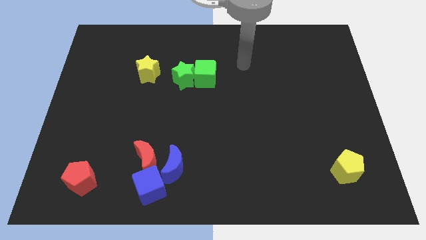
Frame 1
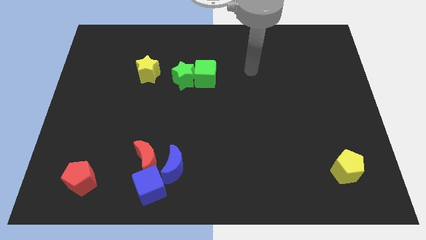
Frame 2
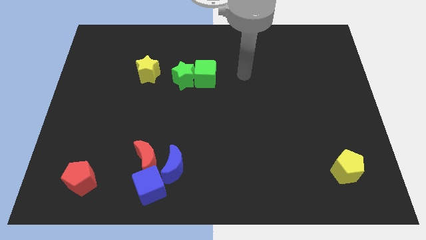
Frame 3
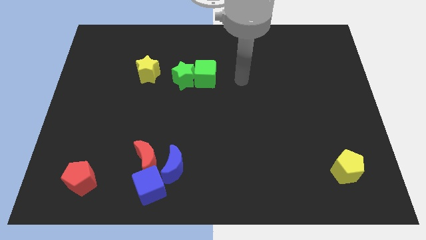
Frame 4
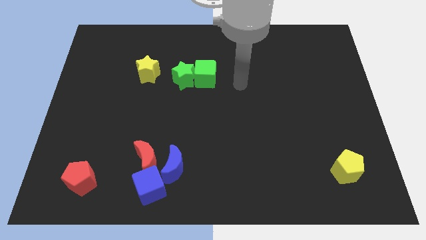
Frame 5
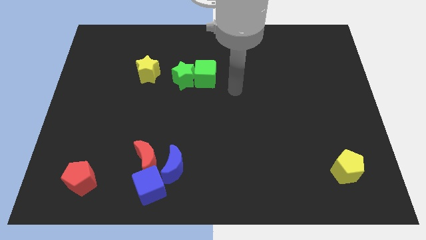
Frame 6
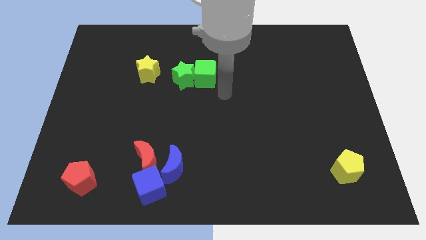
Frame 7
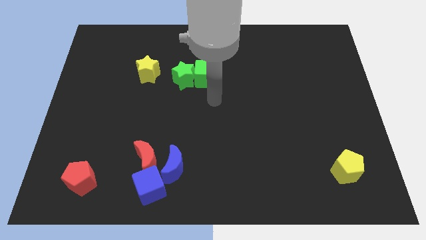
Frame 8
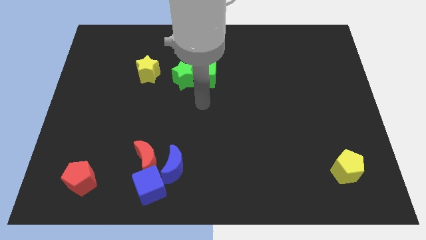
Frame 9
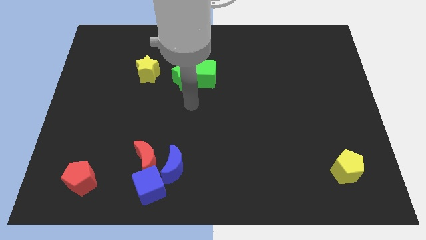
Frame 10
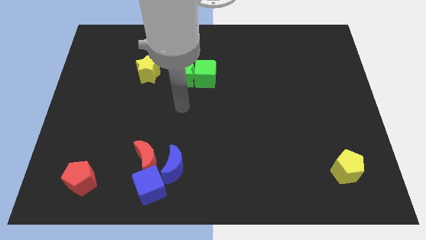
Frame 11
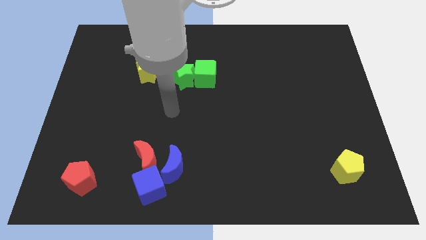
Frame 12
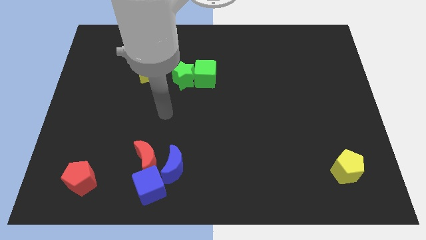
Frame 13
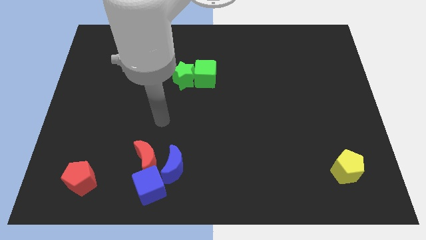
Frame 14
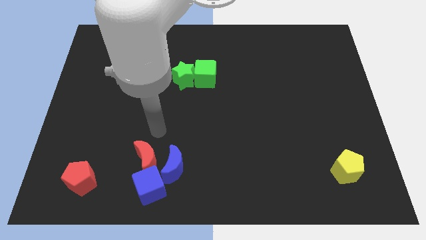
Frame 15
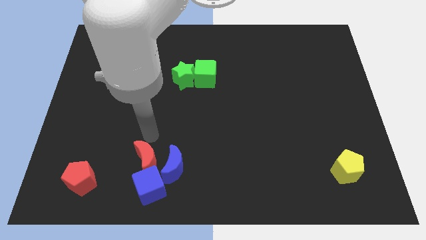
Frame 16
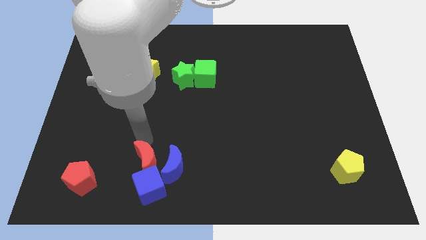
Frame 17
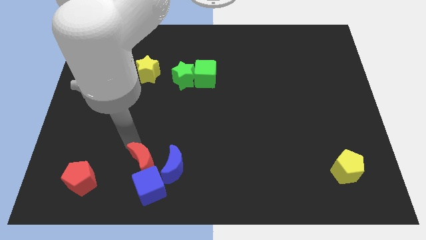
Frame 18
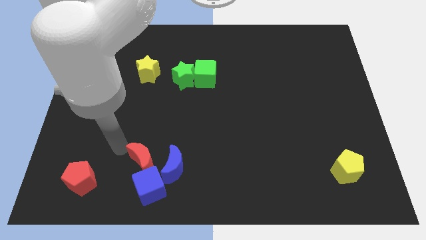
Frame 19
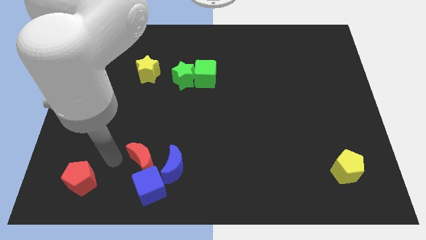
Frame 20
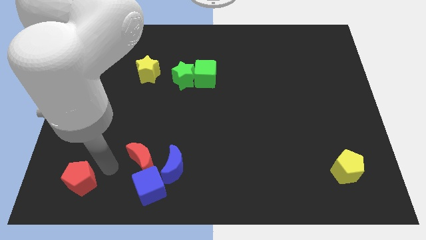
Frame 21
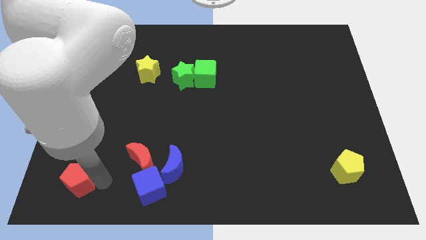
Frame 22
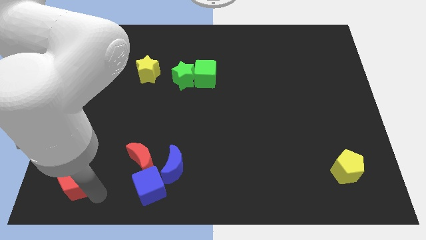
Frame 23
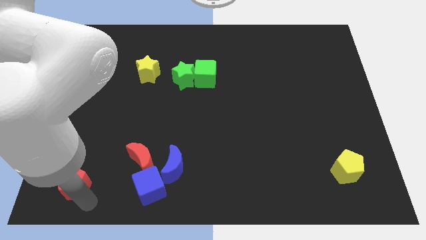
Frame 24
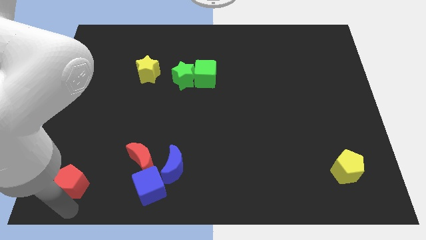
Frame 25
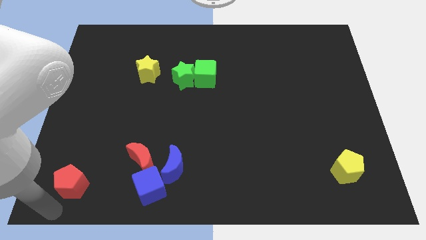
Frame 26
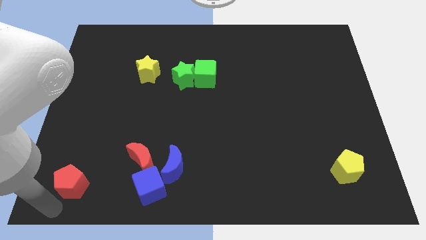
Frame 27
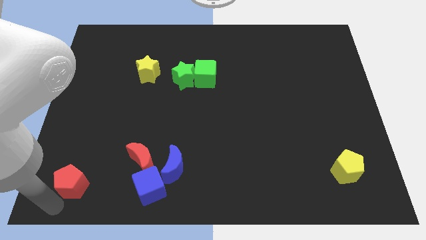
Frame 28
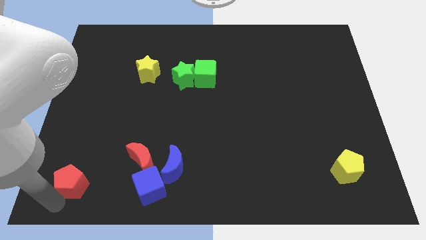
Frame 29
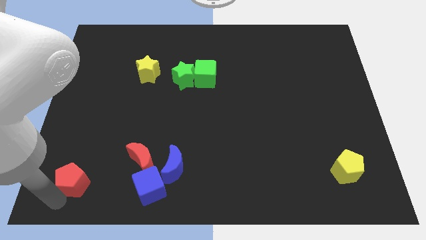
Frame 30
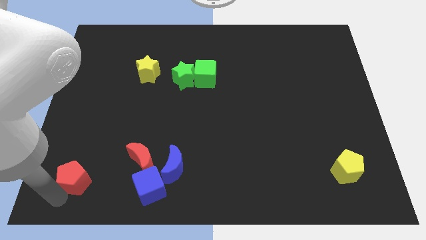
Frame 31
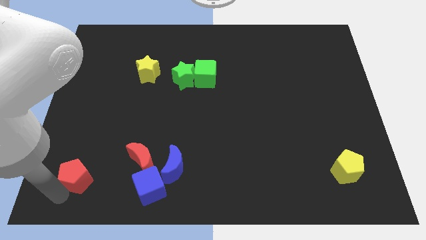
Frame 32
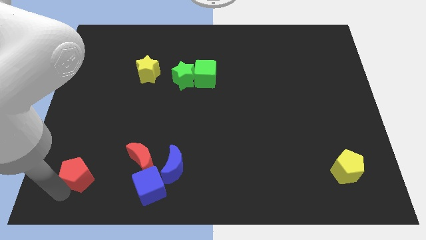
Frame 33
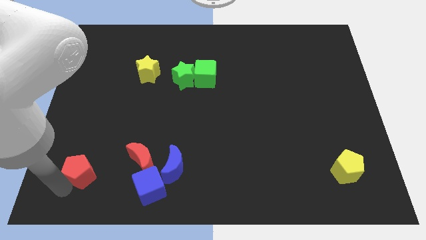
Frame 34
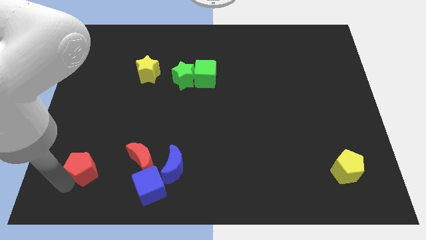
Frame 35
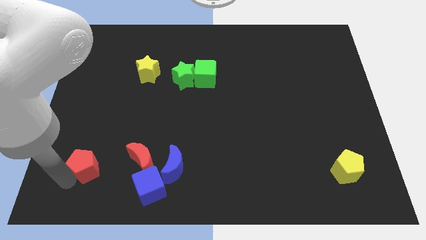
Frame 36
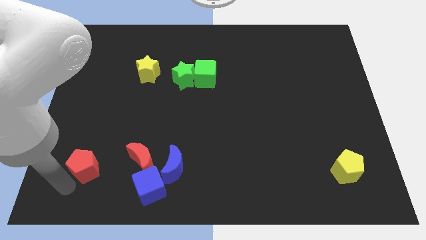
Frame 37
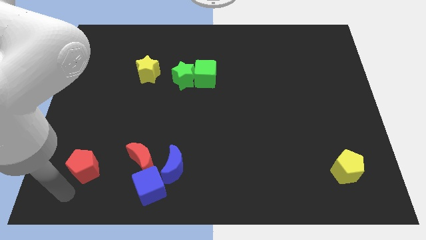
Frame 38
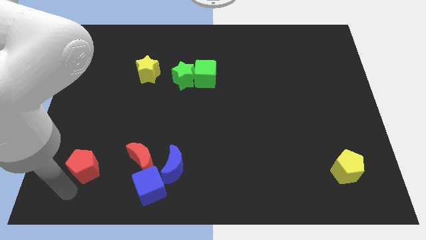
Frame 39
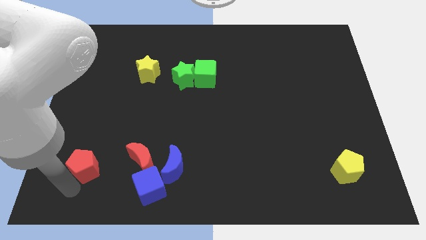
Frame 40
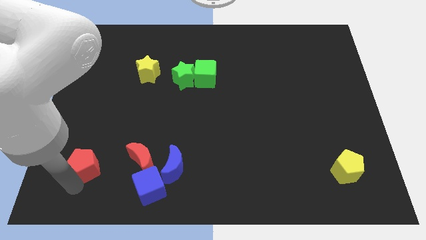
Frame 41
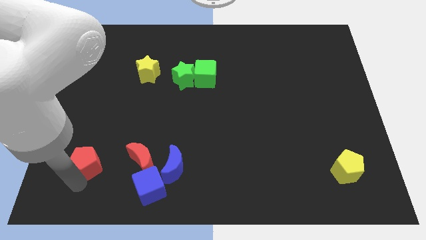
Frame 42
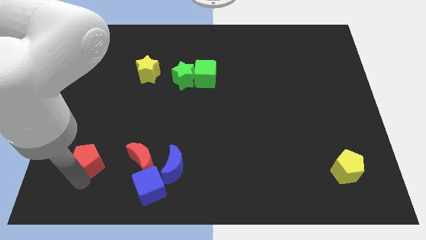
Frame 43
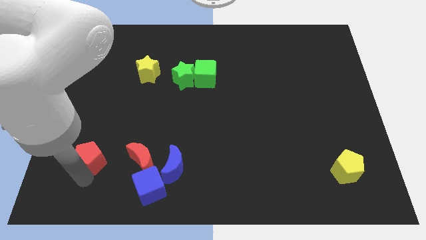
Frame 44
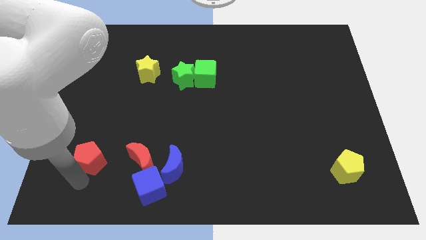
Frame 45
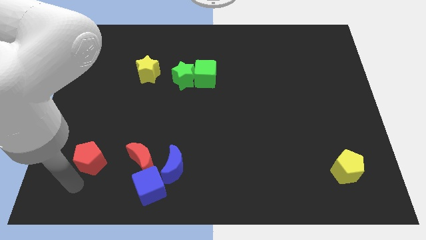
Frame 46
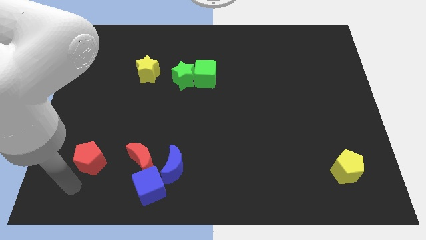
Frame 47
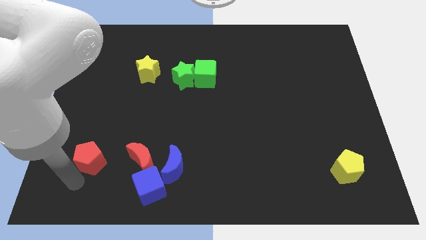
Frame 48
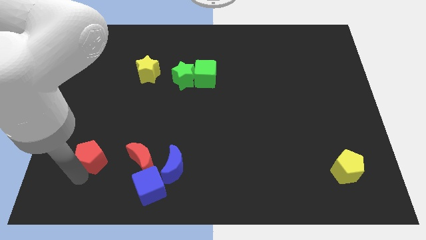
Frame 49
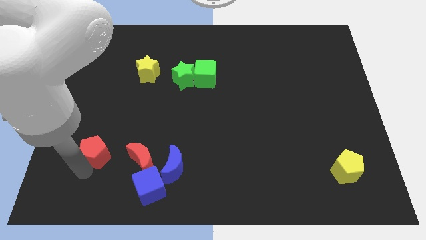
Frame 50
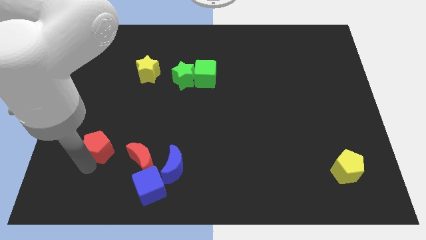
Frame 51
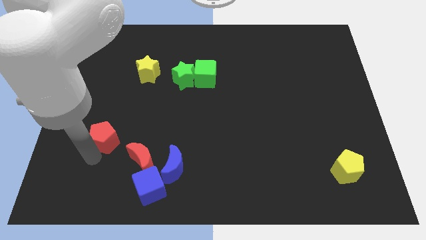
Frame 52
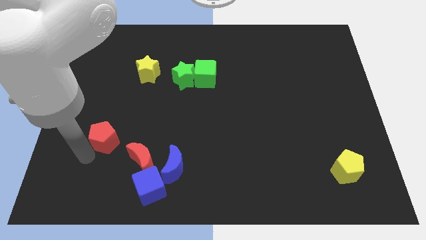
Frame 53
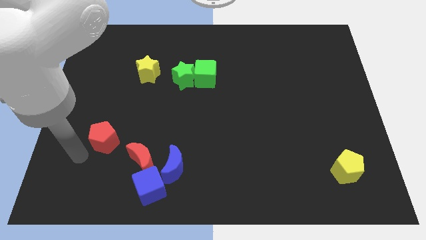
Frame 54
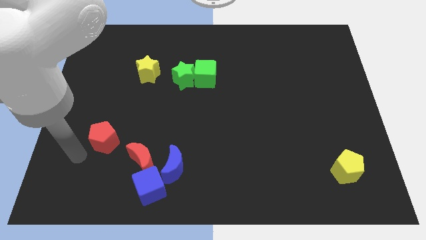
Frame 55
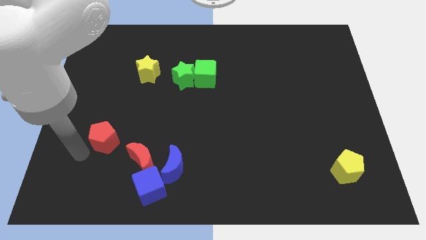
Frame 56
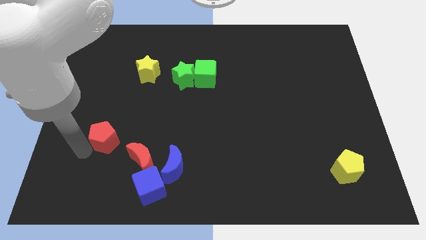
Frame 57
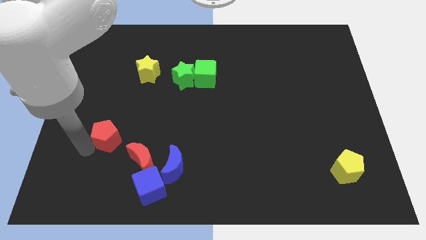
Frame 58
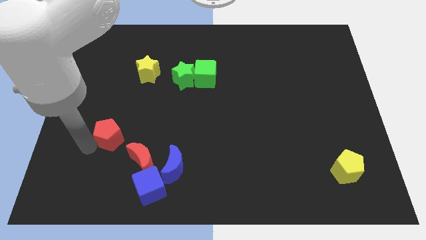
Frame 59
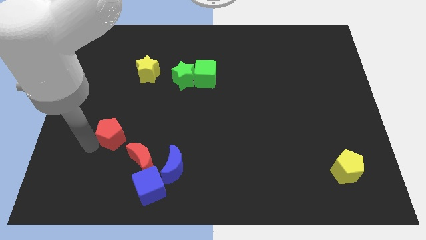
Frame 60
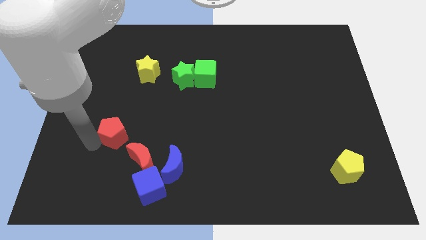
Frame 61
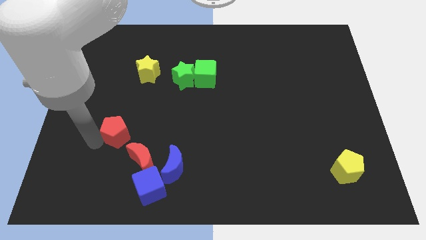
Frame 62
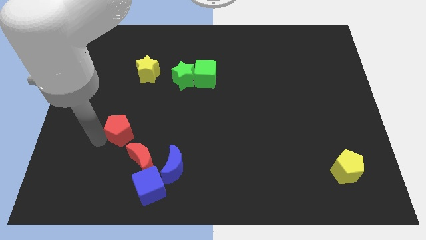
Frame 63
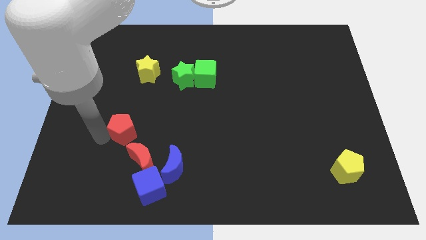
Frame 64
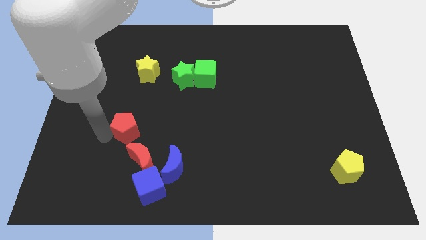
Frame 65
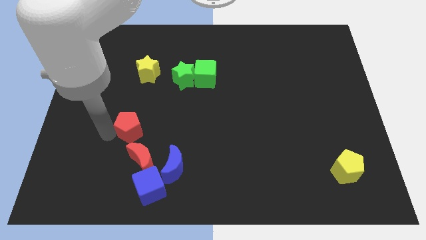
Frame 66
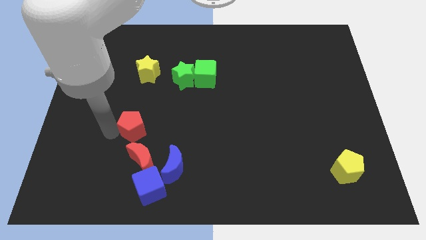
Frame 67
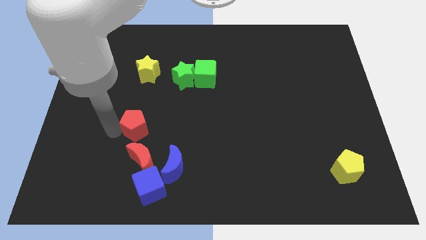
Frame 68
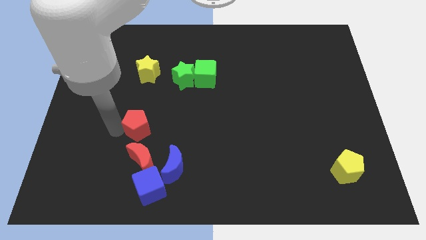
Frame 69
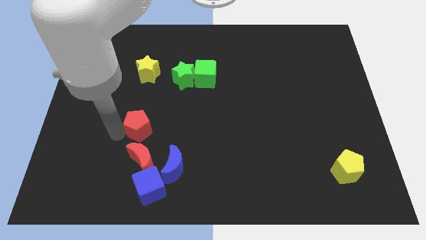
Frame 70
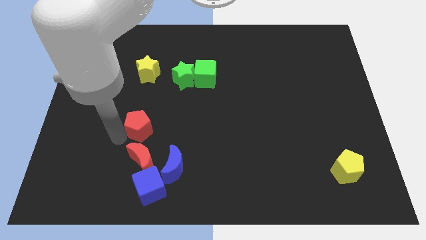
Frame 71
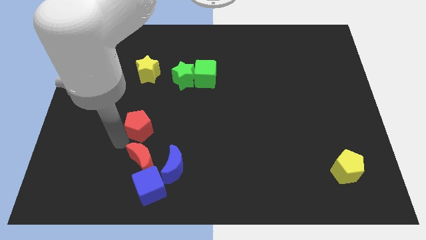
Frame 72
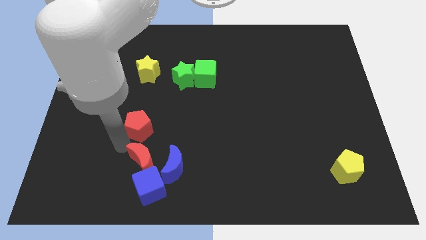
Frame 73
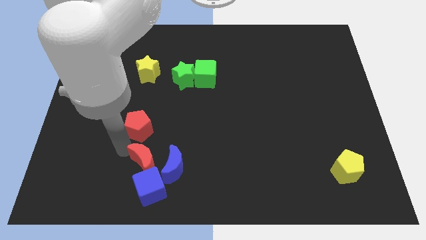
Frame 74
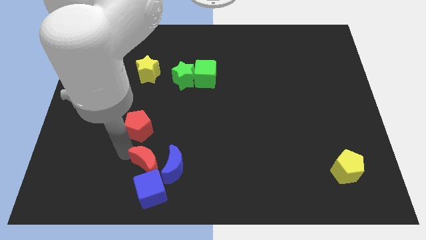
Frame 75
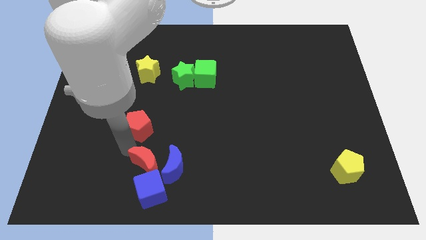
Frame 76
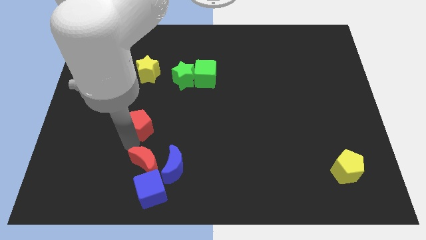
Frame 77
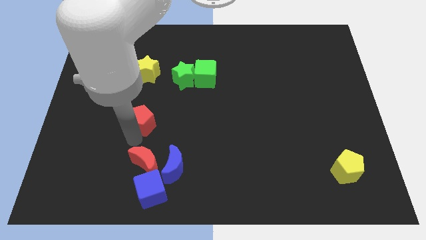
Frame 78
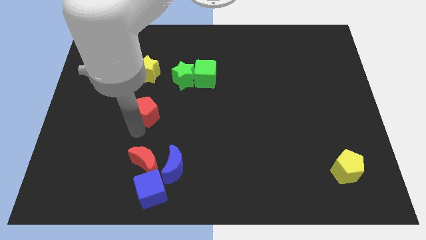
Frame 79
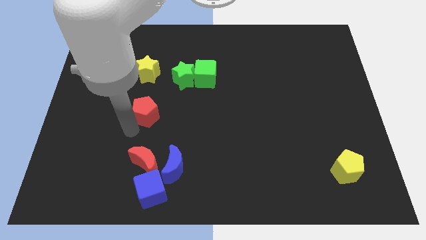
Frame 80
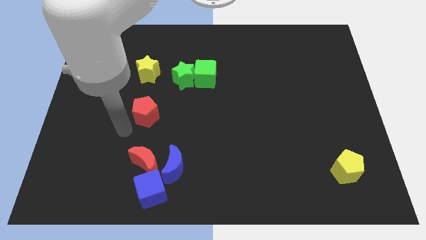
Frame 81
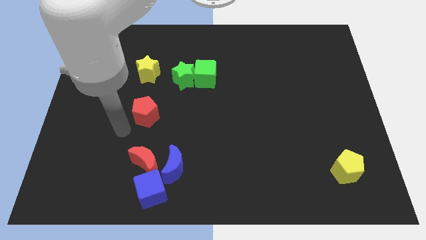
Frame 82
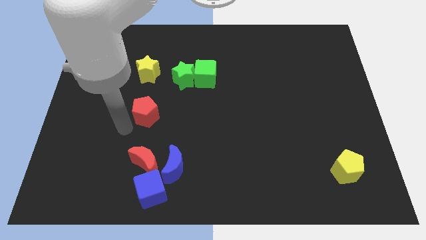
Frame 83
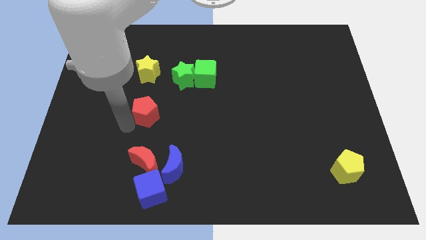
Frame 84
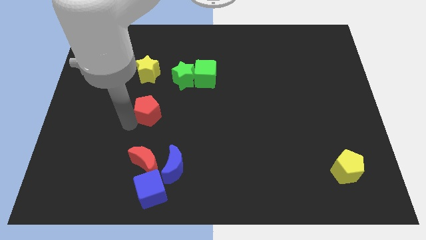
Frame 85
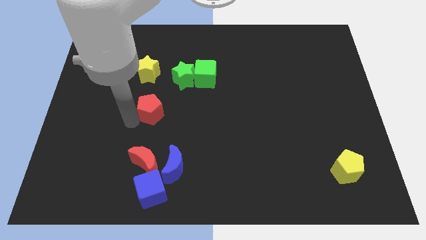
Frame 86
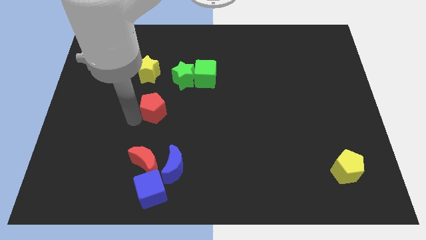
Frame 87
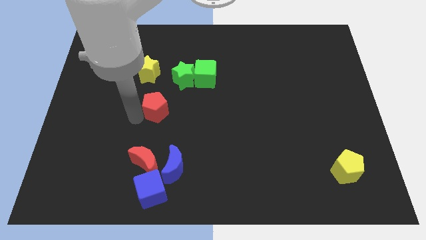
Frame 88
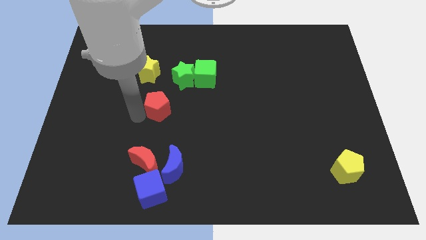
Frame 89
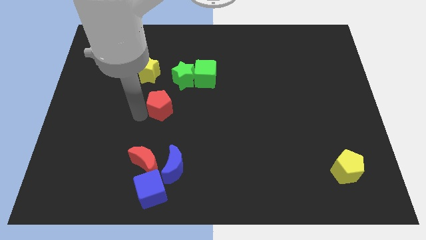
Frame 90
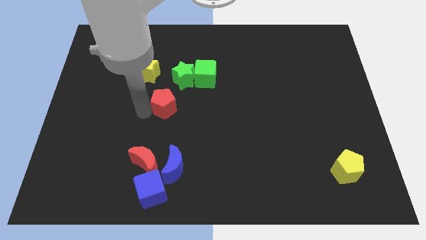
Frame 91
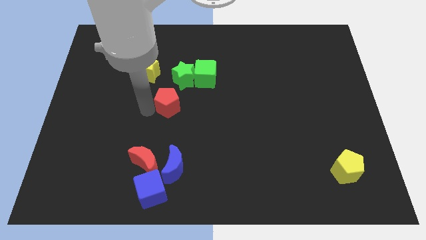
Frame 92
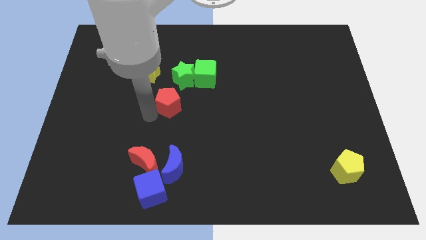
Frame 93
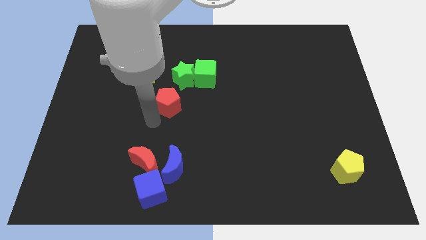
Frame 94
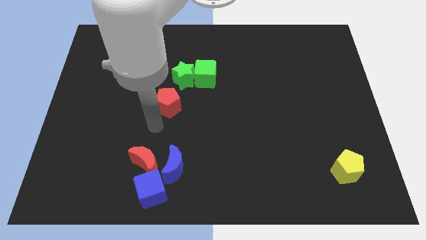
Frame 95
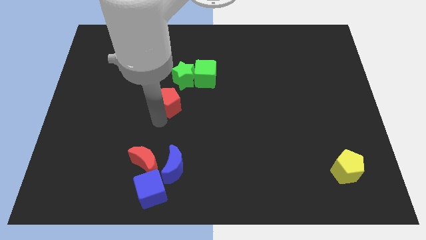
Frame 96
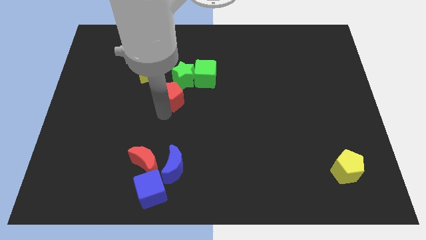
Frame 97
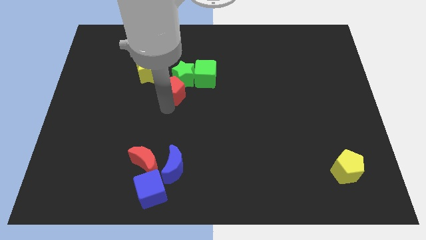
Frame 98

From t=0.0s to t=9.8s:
put the red pentagon towards the green star
